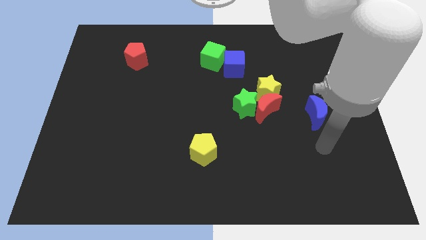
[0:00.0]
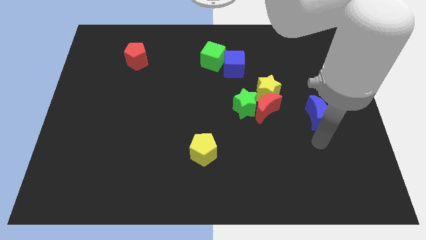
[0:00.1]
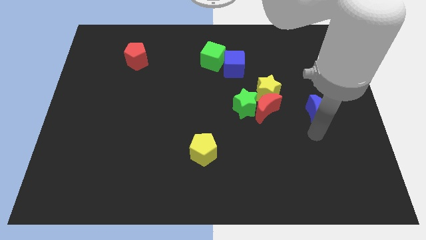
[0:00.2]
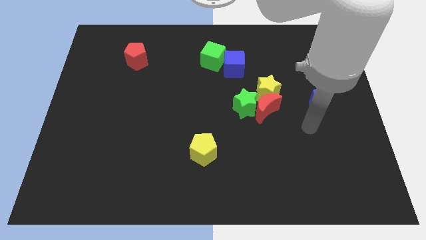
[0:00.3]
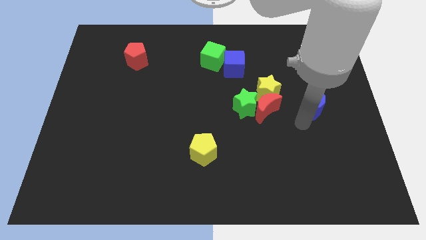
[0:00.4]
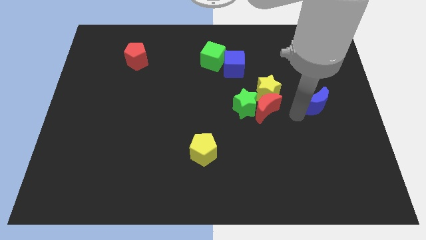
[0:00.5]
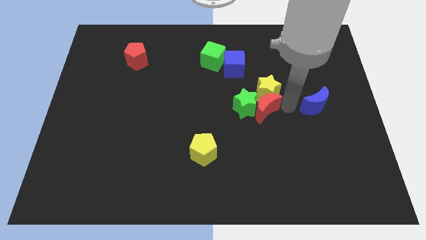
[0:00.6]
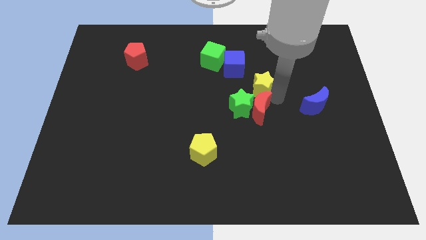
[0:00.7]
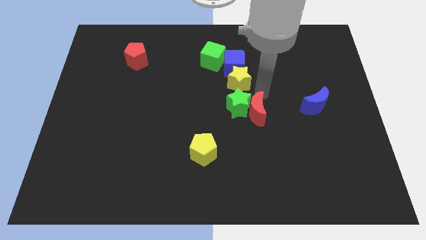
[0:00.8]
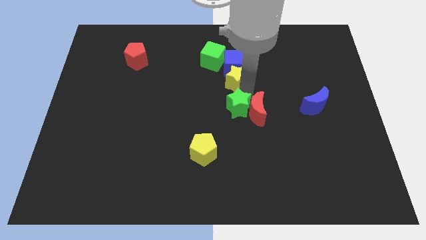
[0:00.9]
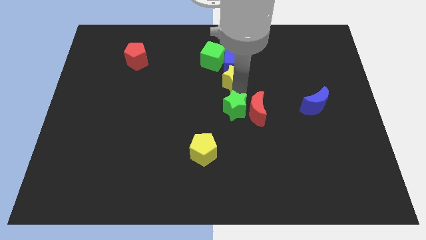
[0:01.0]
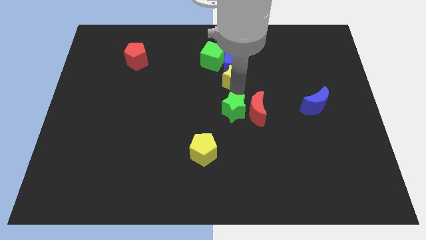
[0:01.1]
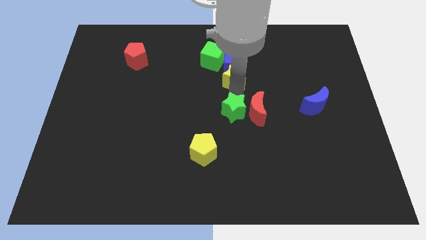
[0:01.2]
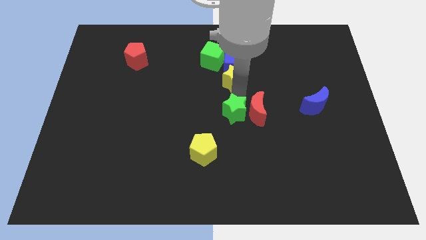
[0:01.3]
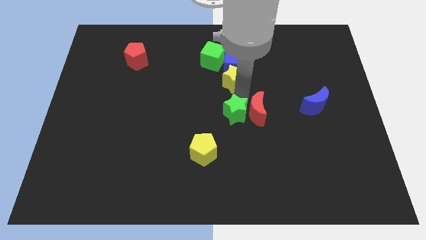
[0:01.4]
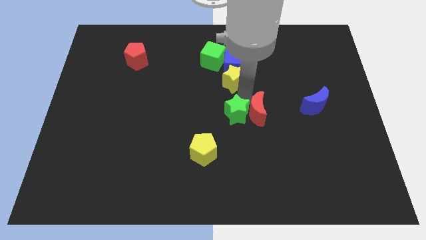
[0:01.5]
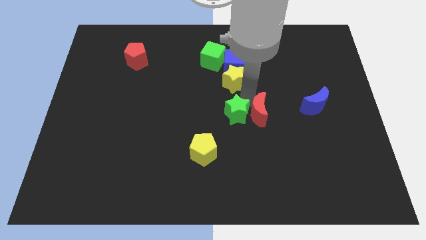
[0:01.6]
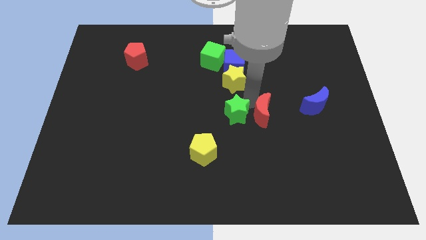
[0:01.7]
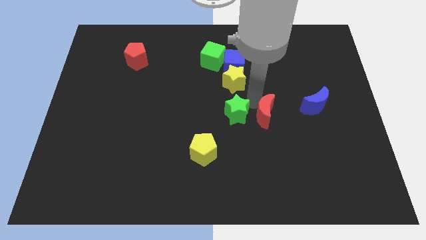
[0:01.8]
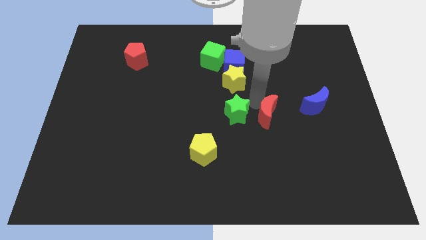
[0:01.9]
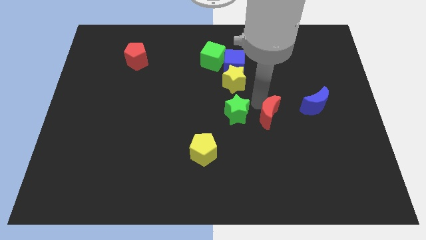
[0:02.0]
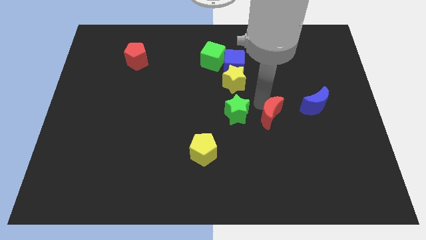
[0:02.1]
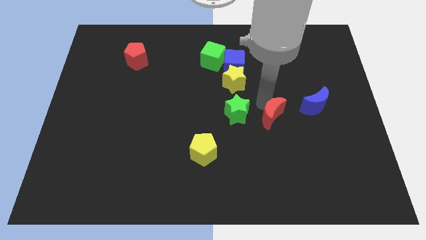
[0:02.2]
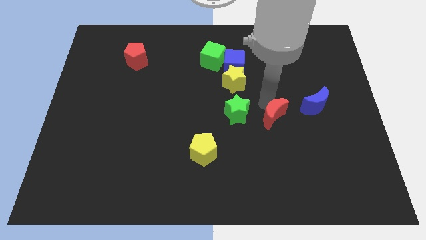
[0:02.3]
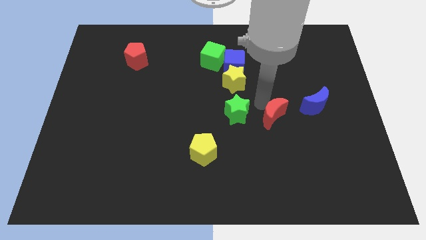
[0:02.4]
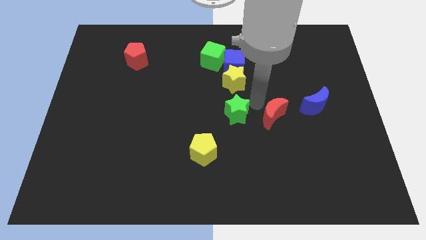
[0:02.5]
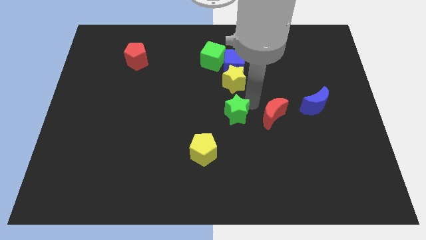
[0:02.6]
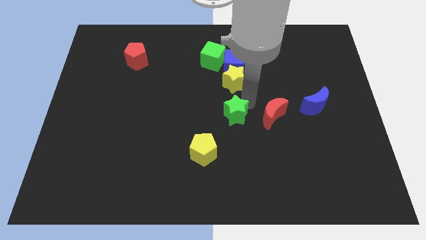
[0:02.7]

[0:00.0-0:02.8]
separate the red moon from the green star and yellow star

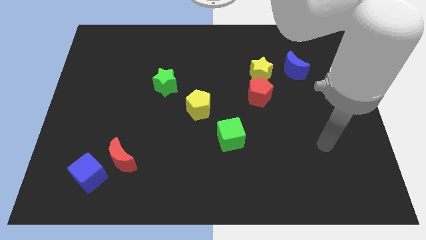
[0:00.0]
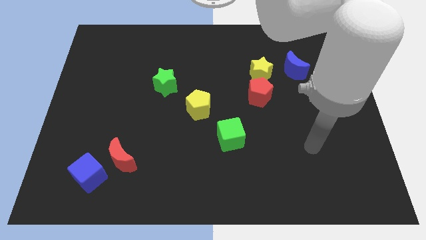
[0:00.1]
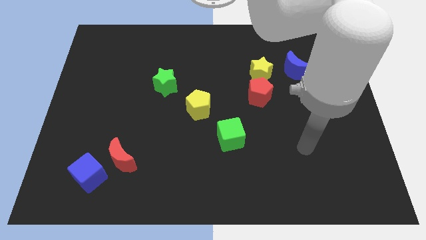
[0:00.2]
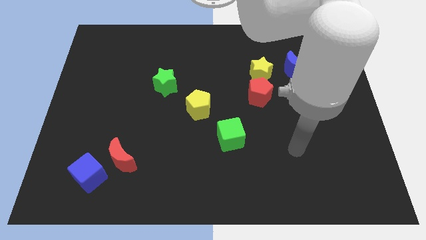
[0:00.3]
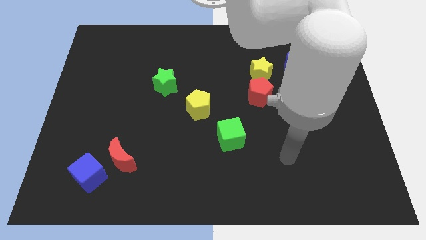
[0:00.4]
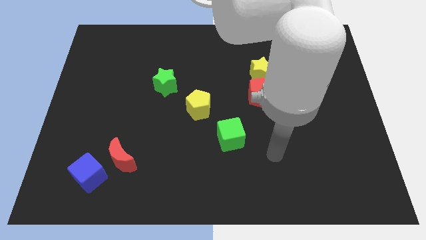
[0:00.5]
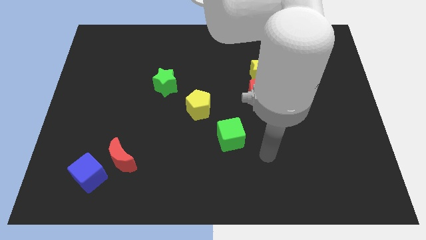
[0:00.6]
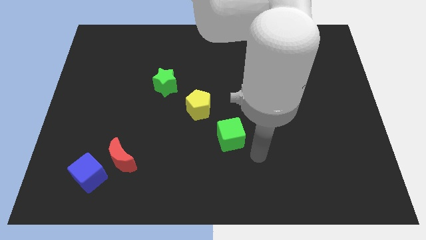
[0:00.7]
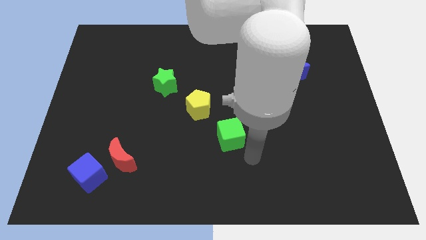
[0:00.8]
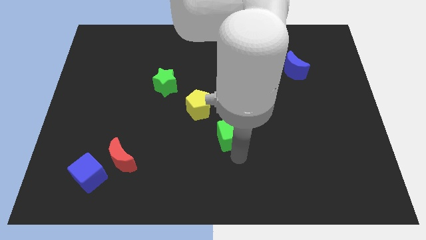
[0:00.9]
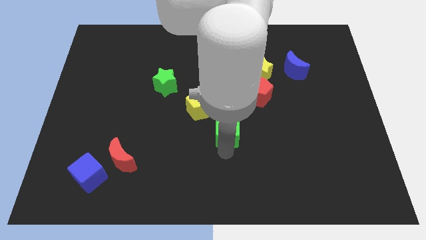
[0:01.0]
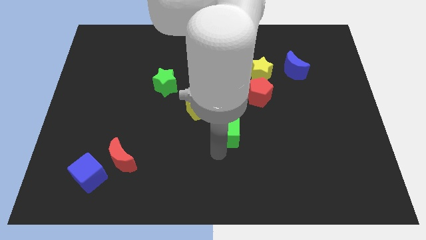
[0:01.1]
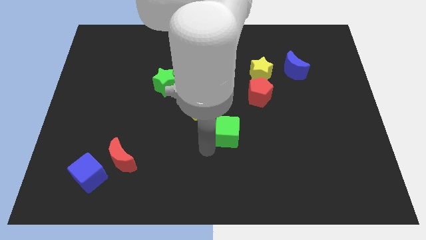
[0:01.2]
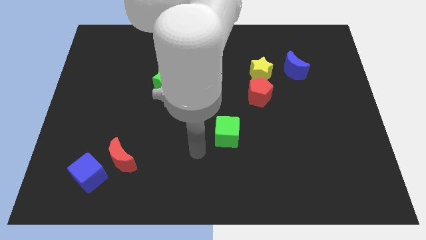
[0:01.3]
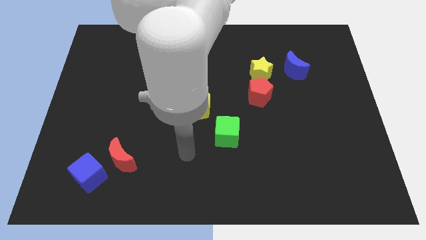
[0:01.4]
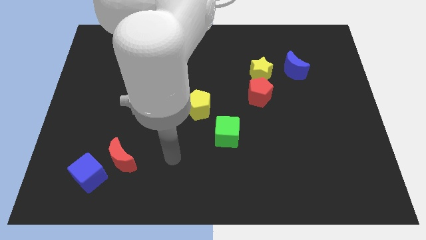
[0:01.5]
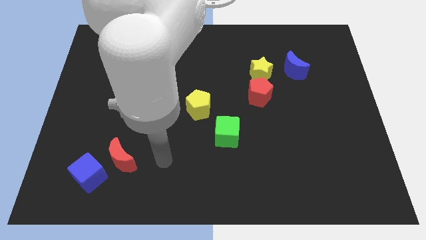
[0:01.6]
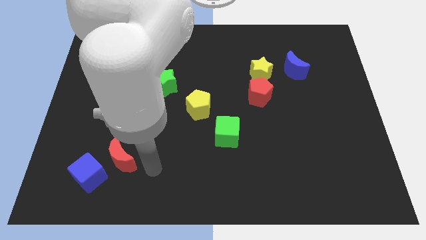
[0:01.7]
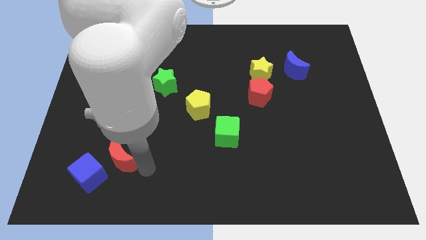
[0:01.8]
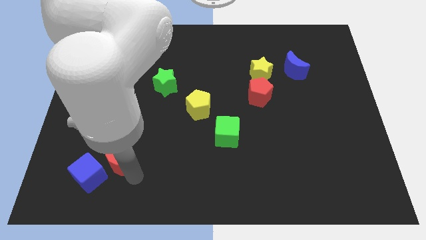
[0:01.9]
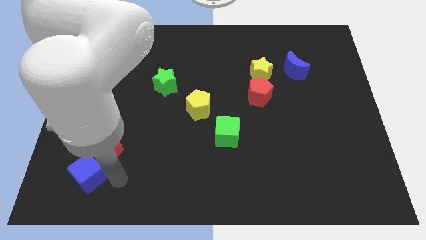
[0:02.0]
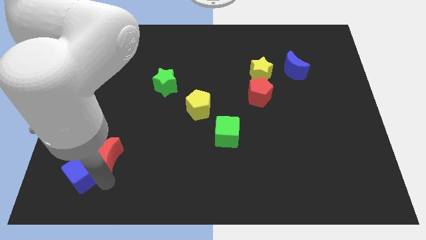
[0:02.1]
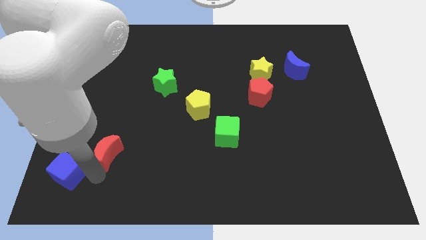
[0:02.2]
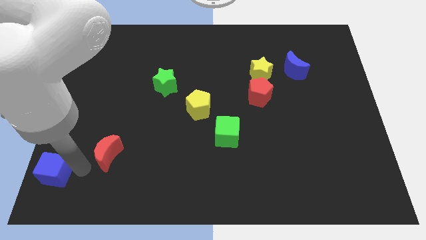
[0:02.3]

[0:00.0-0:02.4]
pull the red moon apart from the blue cube

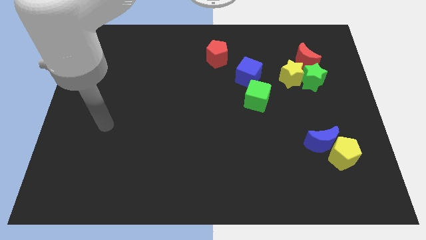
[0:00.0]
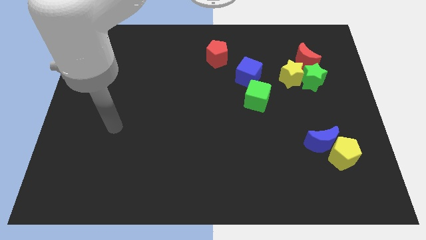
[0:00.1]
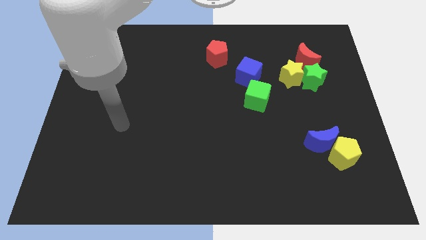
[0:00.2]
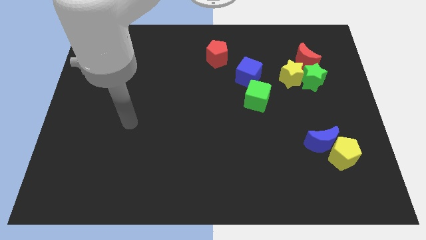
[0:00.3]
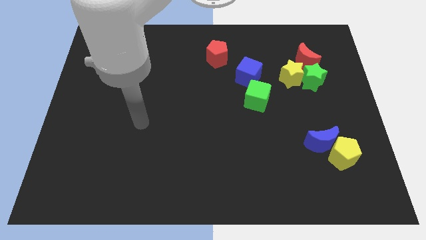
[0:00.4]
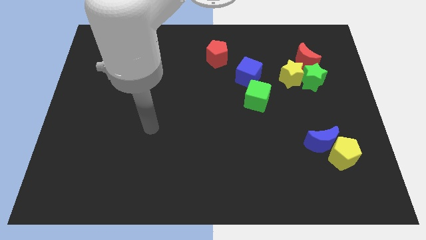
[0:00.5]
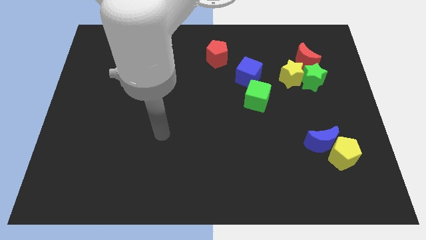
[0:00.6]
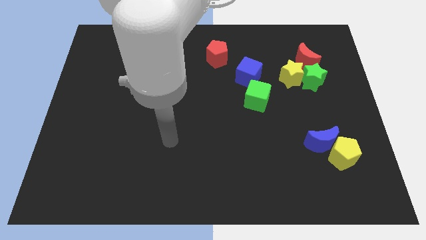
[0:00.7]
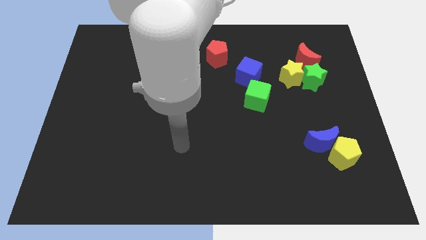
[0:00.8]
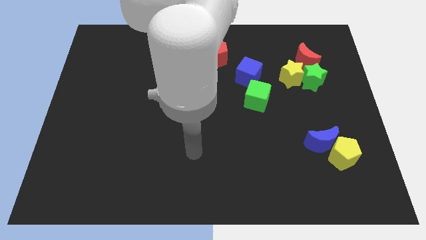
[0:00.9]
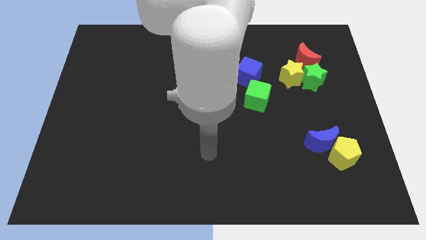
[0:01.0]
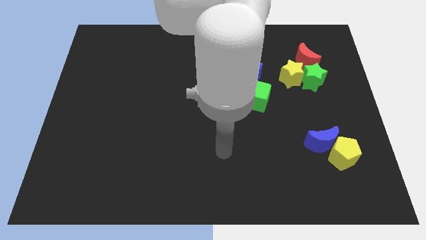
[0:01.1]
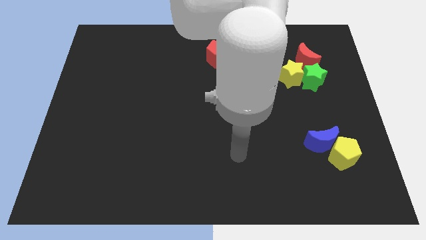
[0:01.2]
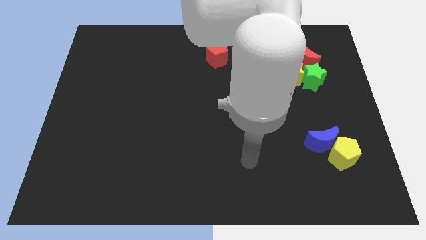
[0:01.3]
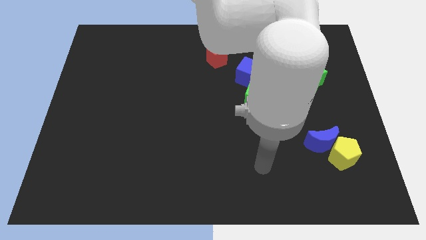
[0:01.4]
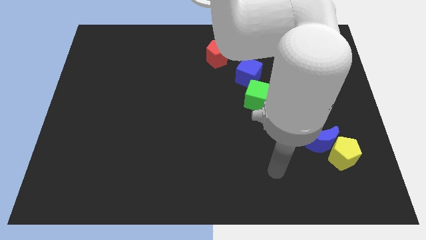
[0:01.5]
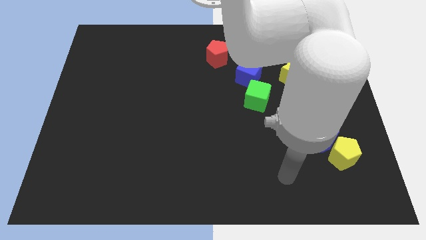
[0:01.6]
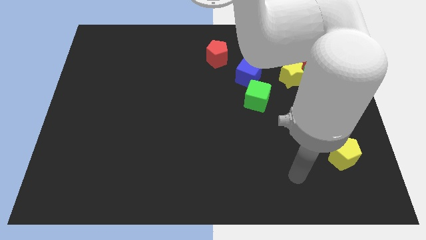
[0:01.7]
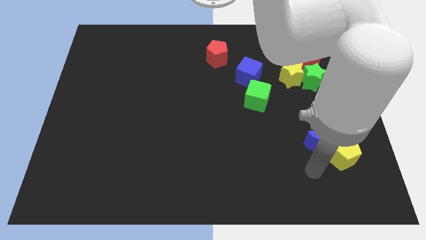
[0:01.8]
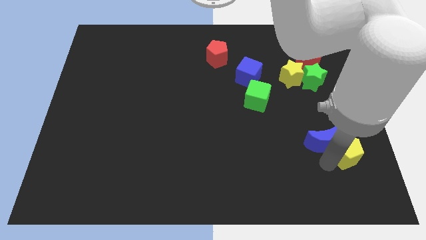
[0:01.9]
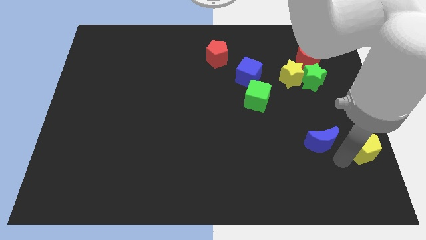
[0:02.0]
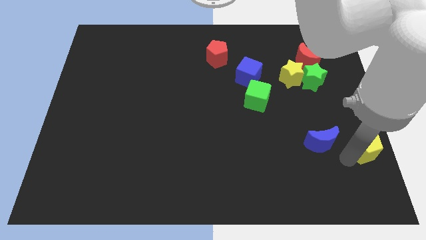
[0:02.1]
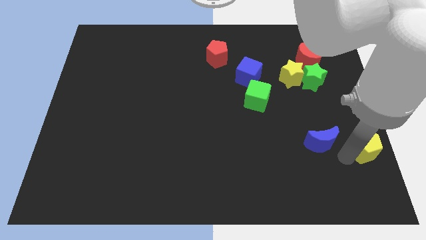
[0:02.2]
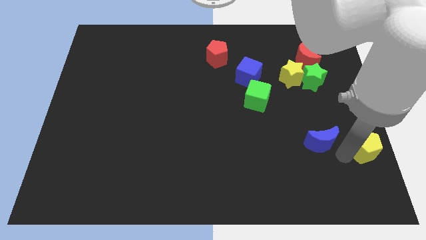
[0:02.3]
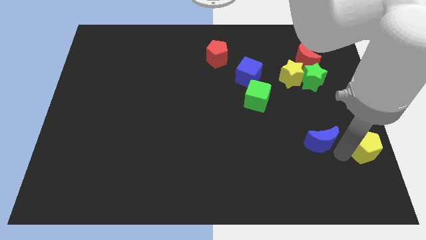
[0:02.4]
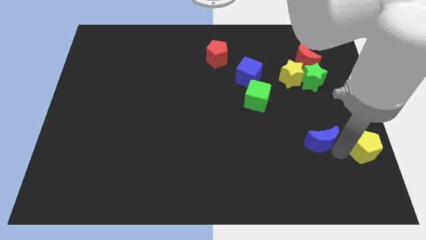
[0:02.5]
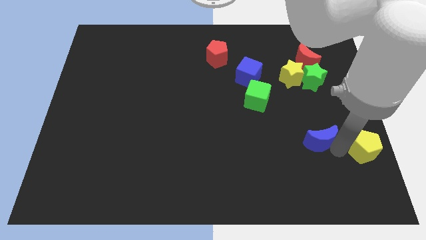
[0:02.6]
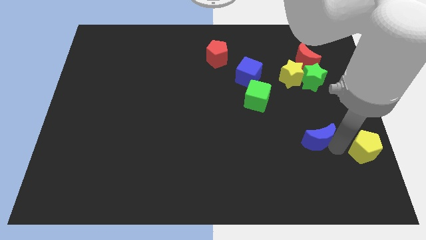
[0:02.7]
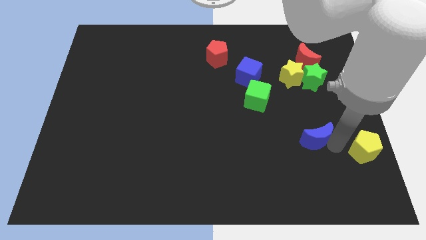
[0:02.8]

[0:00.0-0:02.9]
move the blue moon away from the yellow pentagon

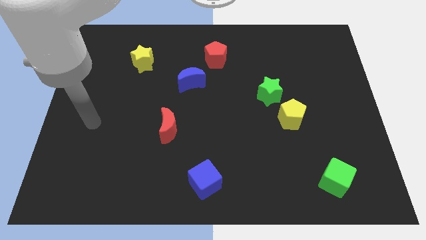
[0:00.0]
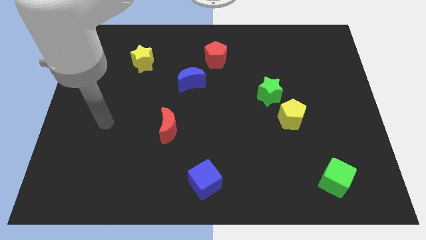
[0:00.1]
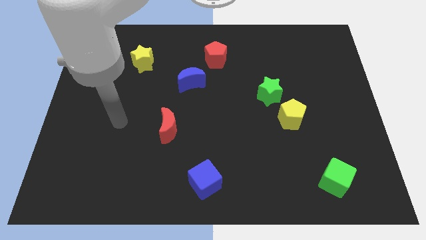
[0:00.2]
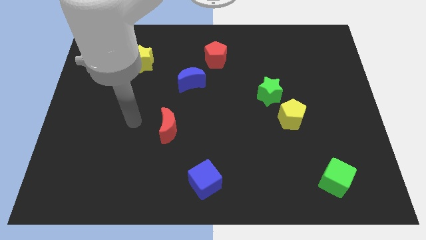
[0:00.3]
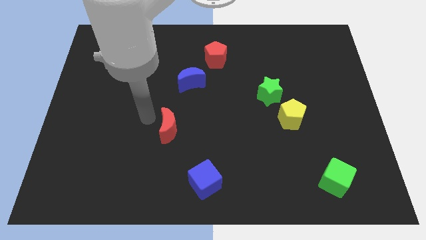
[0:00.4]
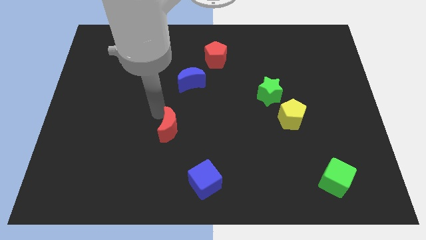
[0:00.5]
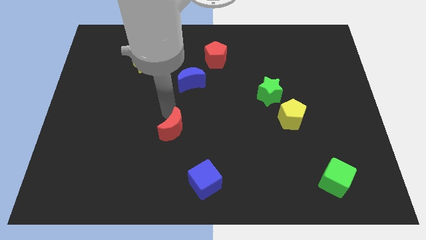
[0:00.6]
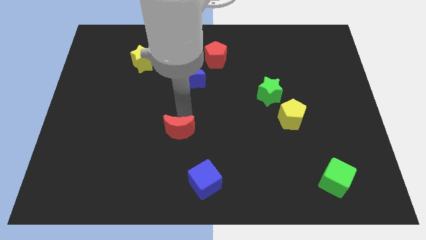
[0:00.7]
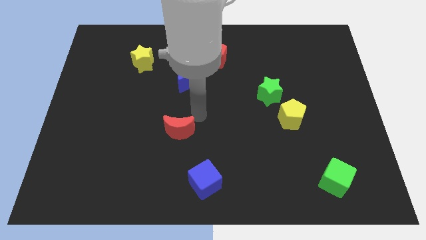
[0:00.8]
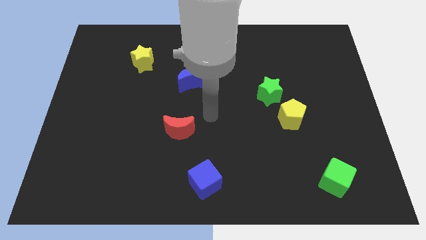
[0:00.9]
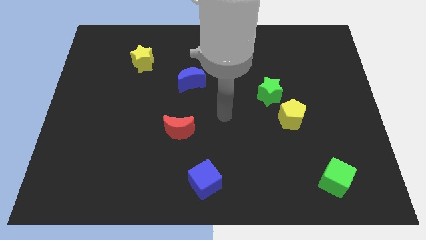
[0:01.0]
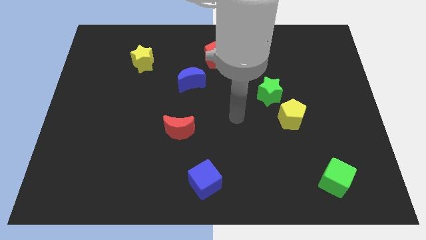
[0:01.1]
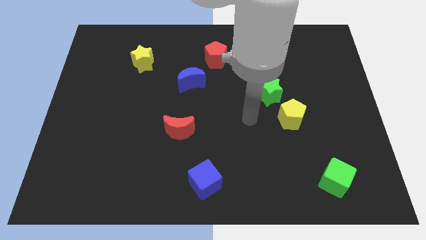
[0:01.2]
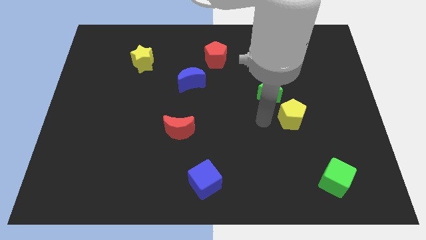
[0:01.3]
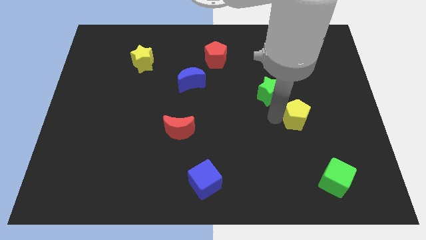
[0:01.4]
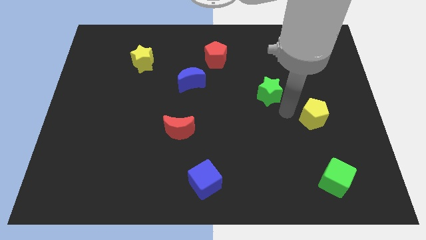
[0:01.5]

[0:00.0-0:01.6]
pull the green star apart from the yellow pentagon
